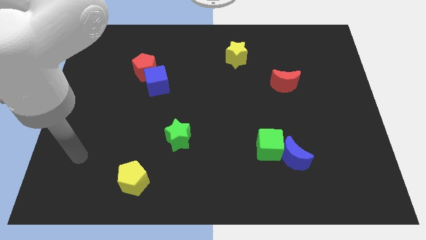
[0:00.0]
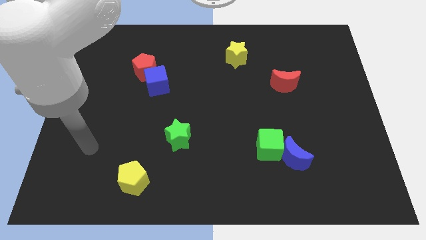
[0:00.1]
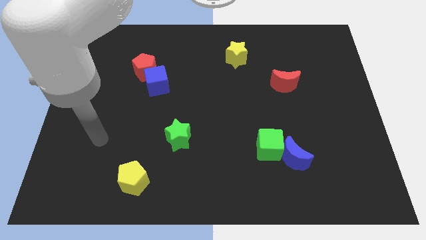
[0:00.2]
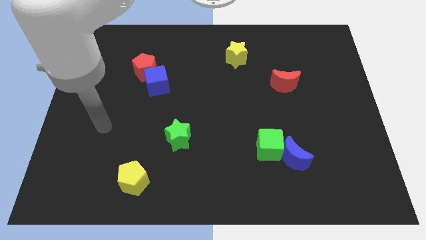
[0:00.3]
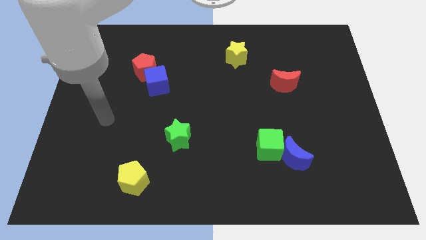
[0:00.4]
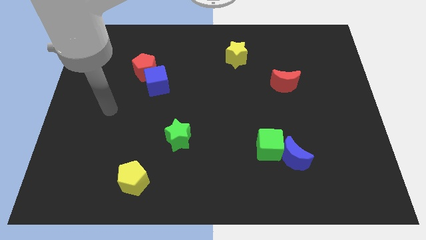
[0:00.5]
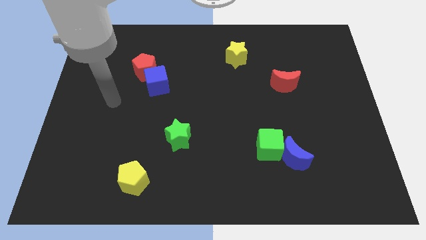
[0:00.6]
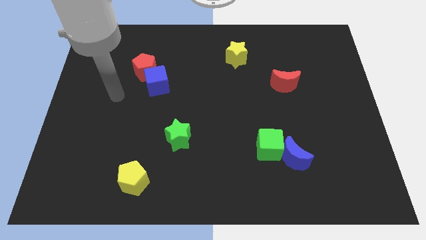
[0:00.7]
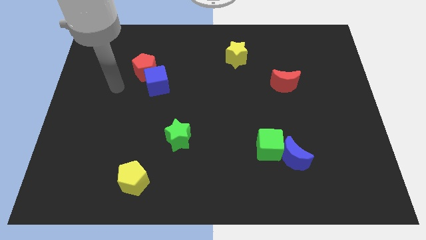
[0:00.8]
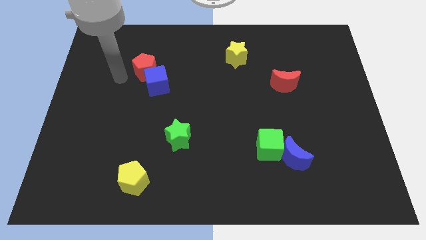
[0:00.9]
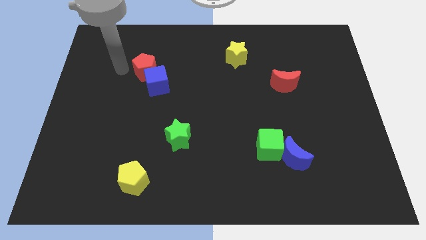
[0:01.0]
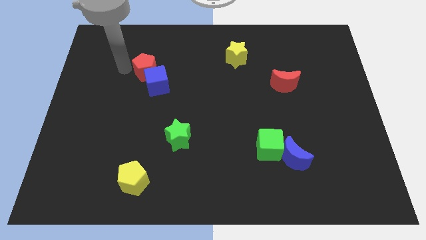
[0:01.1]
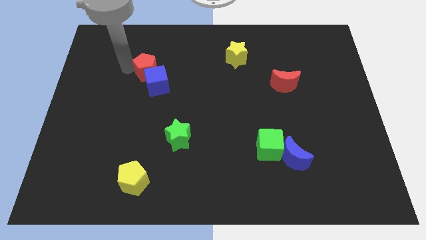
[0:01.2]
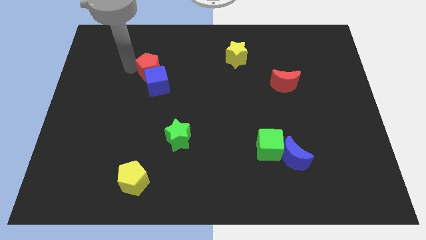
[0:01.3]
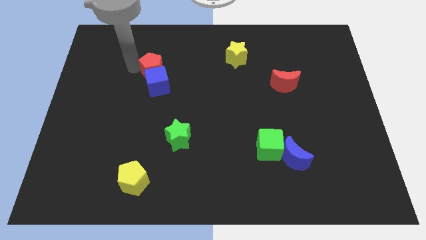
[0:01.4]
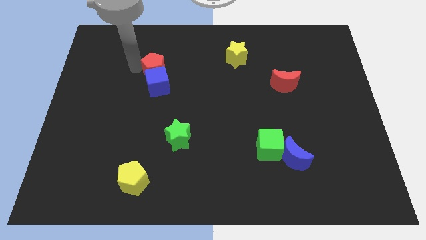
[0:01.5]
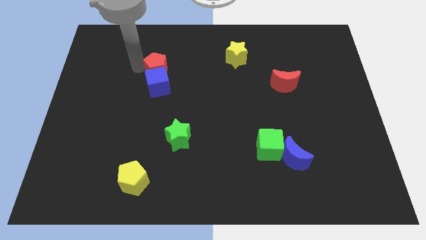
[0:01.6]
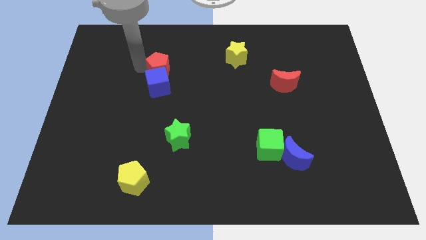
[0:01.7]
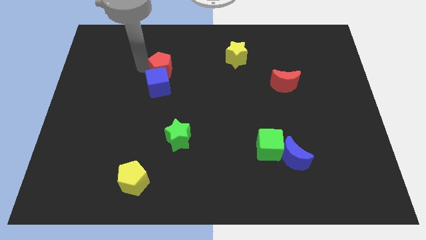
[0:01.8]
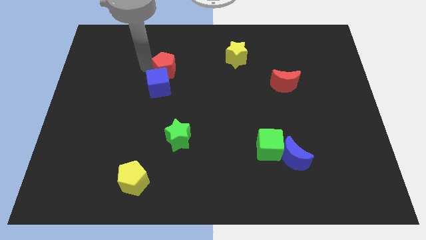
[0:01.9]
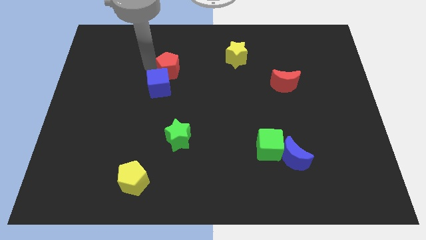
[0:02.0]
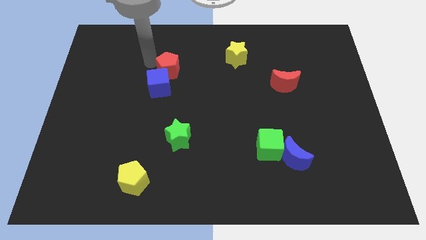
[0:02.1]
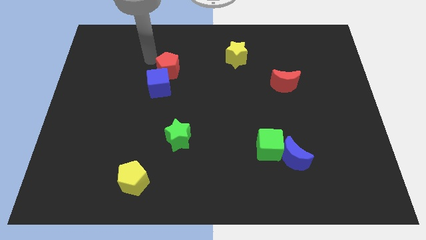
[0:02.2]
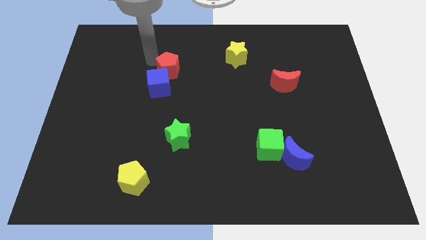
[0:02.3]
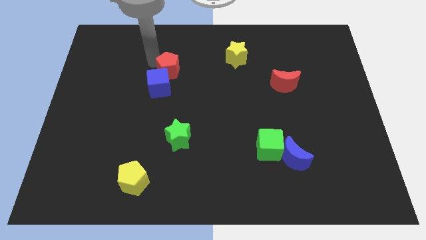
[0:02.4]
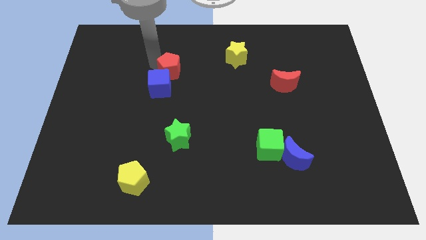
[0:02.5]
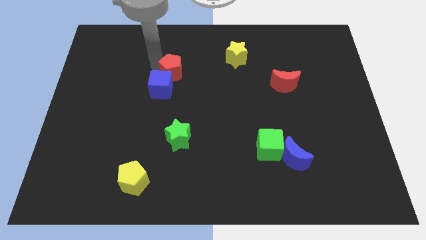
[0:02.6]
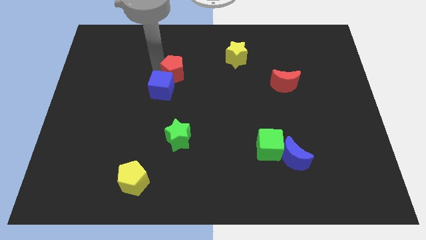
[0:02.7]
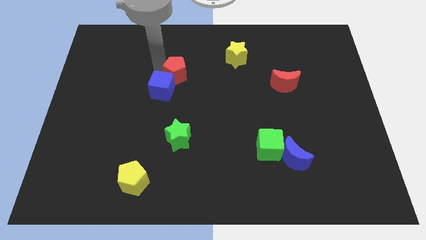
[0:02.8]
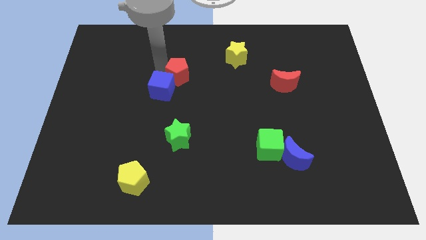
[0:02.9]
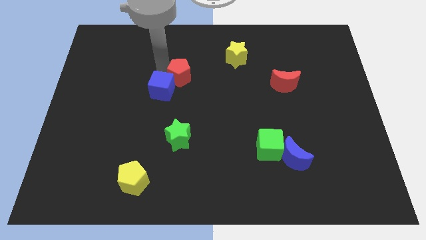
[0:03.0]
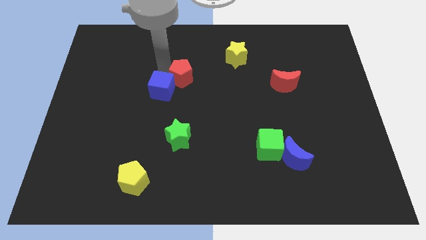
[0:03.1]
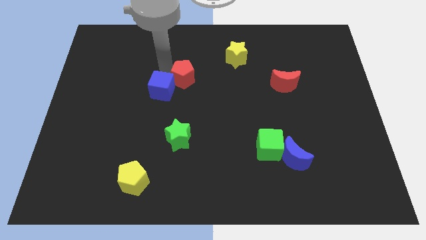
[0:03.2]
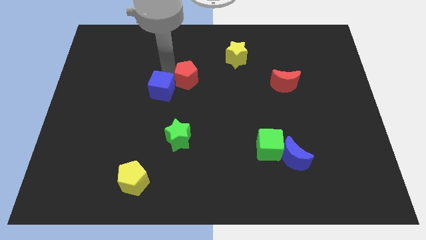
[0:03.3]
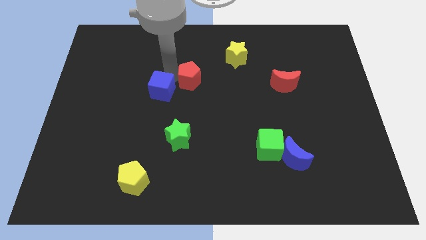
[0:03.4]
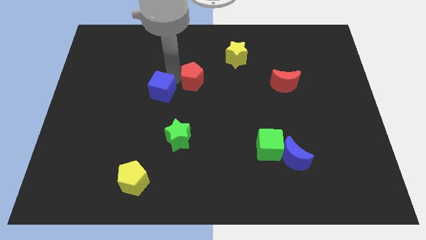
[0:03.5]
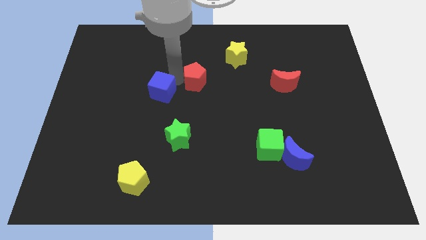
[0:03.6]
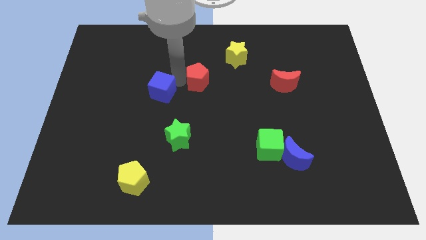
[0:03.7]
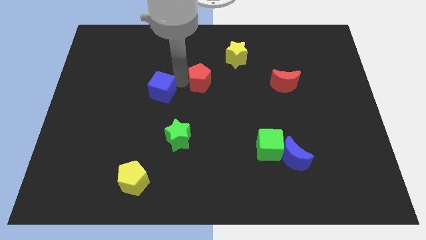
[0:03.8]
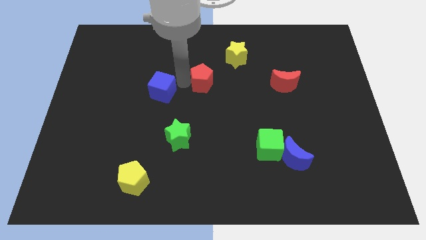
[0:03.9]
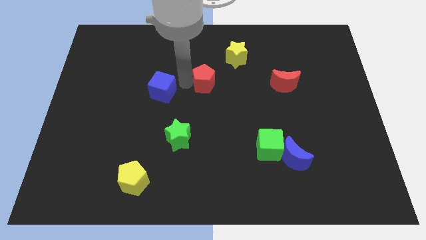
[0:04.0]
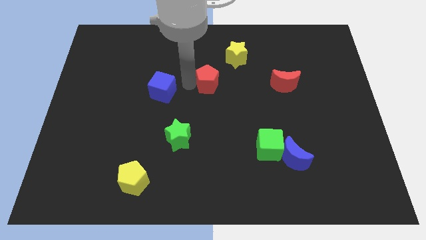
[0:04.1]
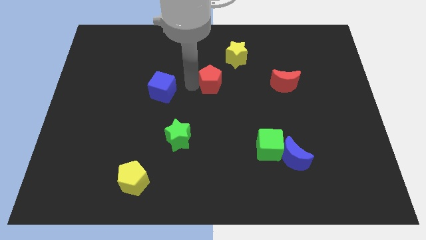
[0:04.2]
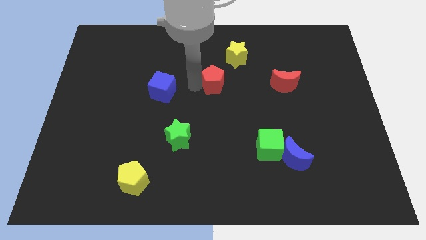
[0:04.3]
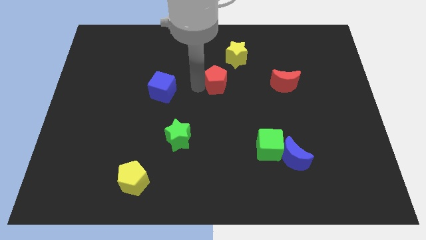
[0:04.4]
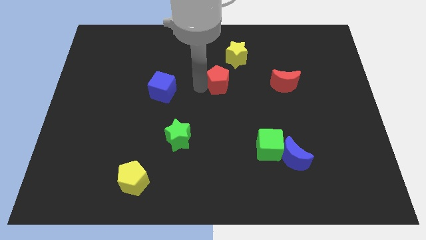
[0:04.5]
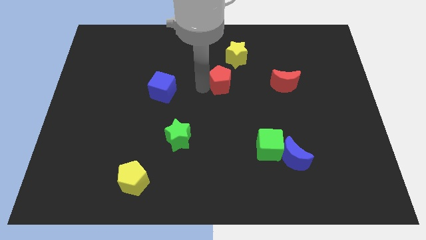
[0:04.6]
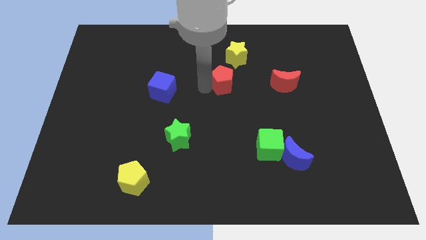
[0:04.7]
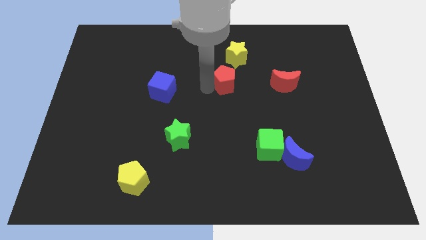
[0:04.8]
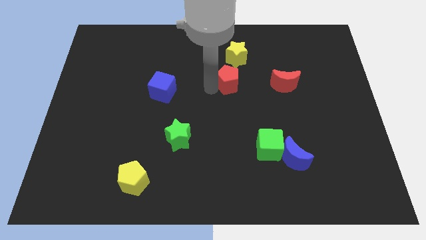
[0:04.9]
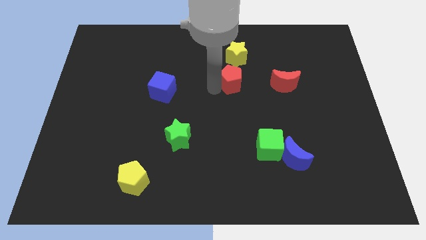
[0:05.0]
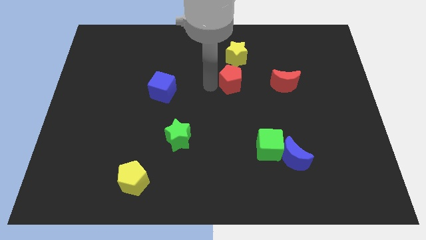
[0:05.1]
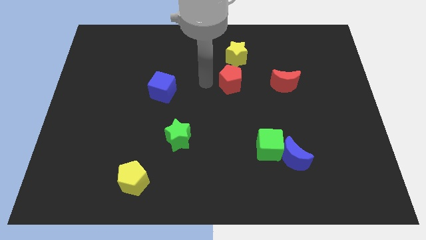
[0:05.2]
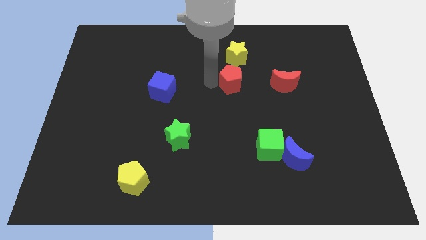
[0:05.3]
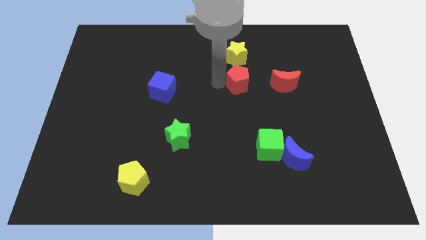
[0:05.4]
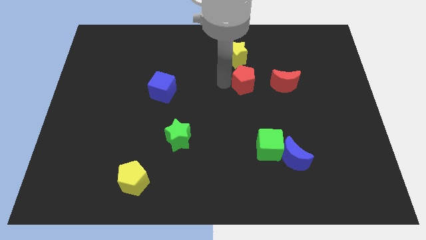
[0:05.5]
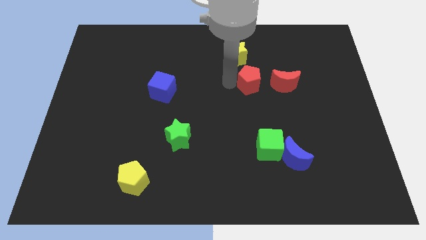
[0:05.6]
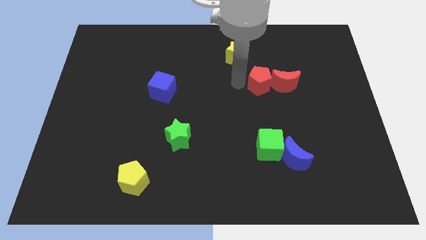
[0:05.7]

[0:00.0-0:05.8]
put the red pentagon towards the red moon

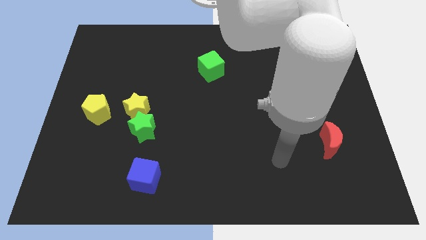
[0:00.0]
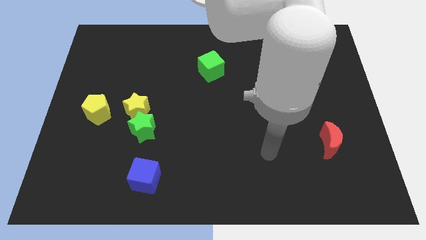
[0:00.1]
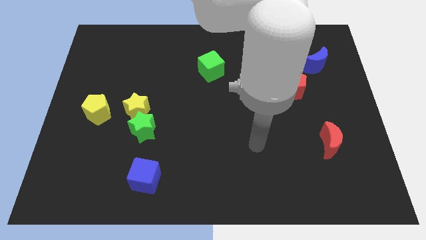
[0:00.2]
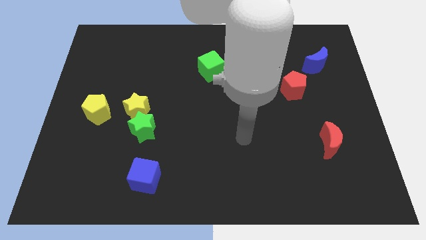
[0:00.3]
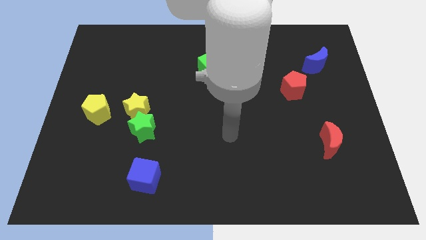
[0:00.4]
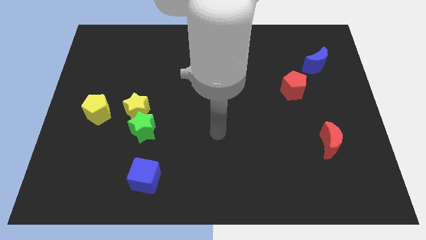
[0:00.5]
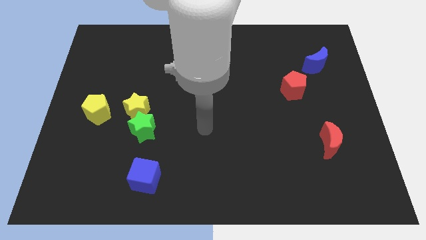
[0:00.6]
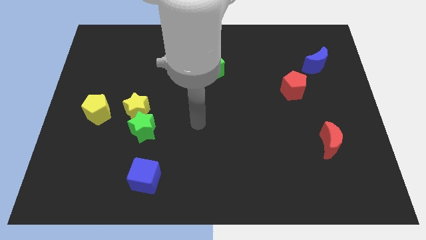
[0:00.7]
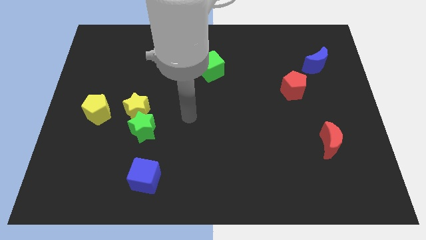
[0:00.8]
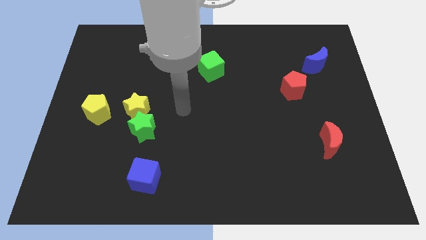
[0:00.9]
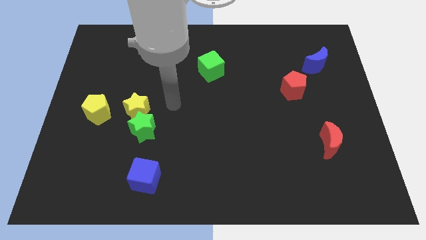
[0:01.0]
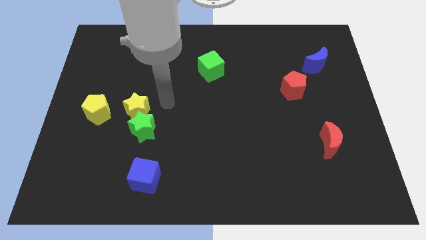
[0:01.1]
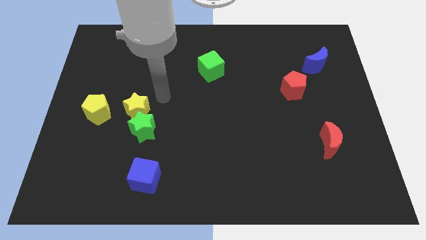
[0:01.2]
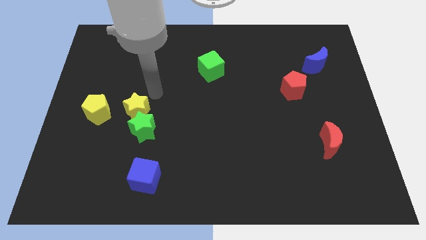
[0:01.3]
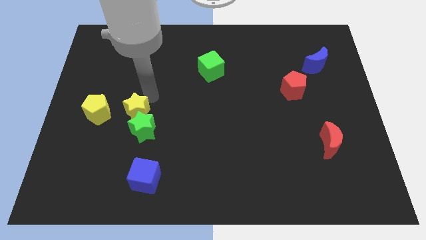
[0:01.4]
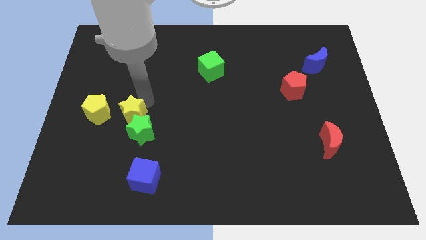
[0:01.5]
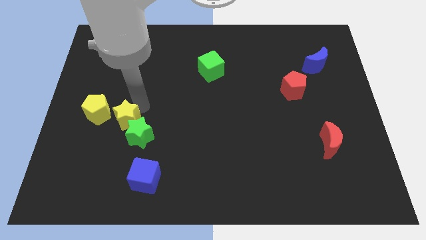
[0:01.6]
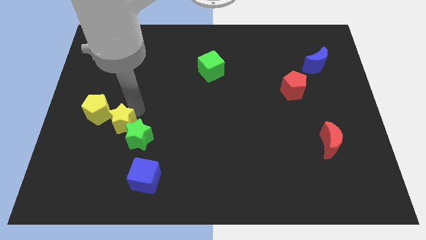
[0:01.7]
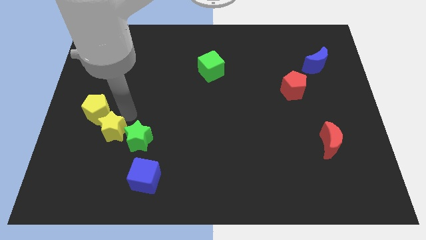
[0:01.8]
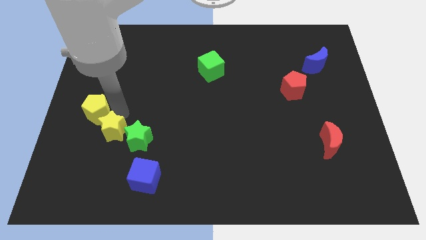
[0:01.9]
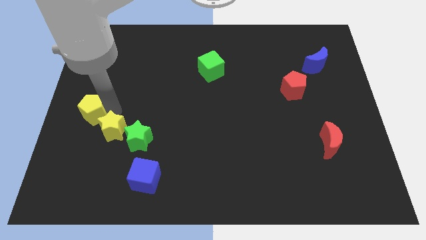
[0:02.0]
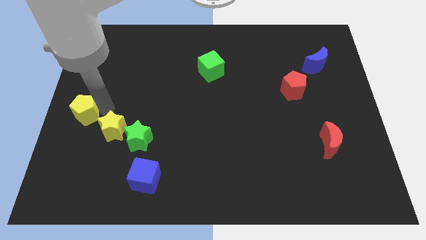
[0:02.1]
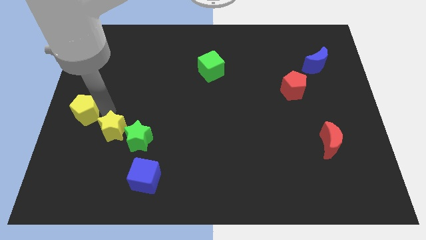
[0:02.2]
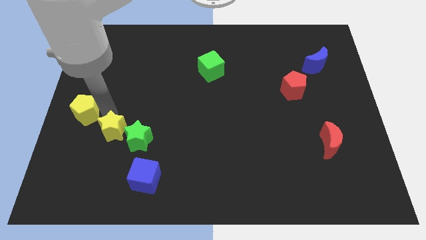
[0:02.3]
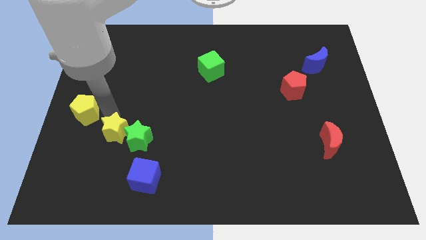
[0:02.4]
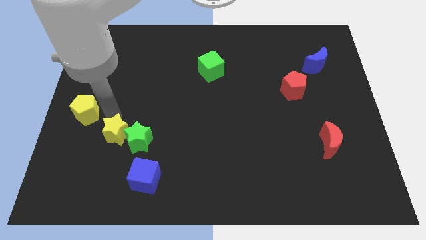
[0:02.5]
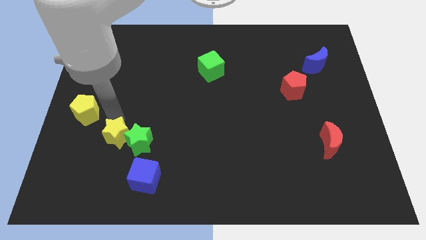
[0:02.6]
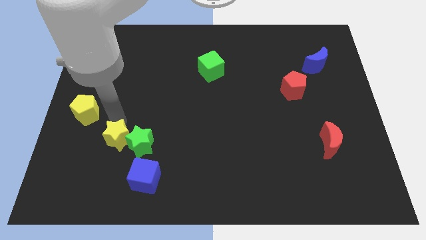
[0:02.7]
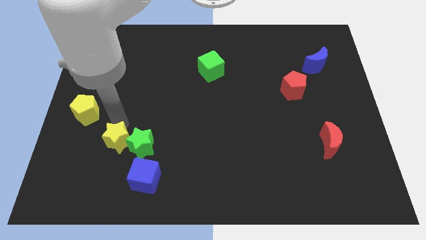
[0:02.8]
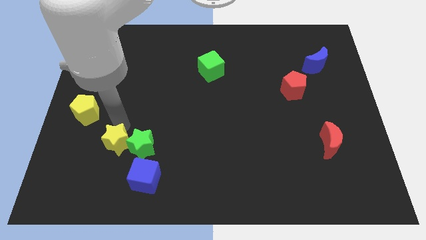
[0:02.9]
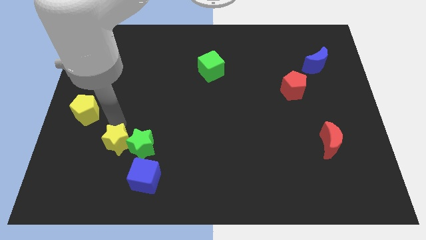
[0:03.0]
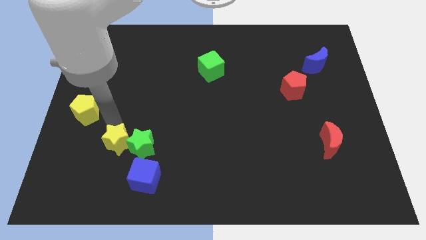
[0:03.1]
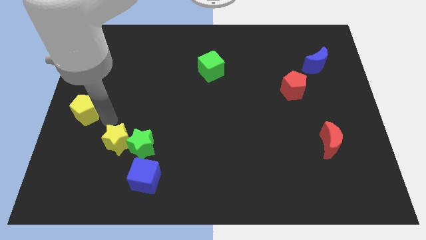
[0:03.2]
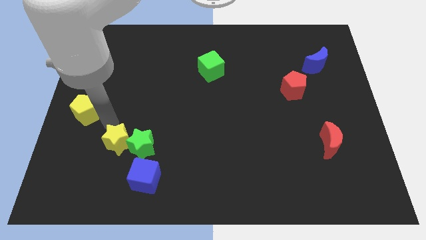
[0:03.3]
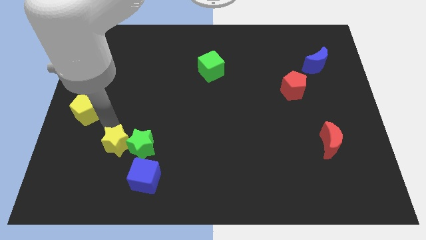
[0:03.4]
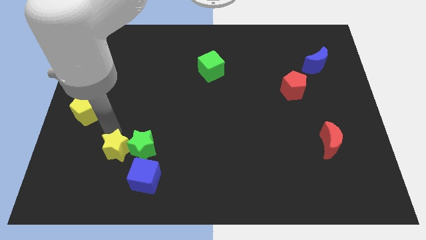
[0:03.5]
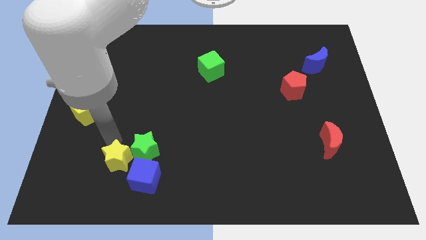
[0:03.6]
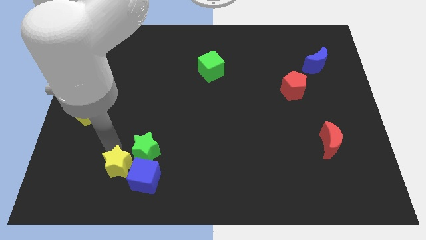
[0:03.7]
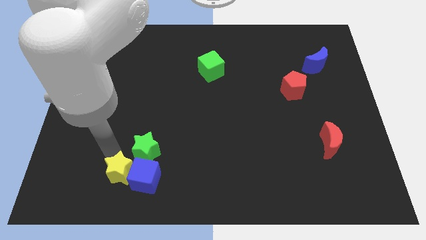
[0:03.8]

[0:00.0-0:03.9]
push the yellow star close to the blue cube
